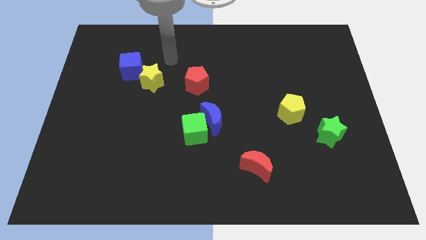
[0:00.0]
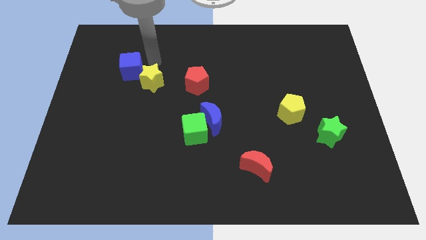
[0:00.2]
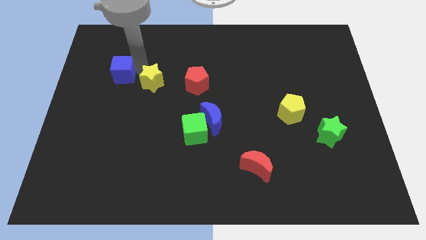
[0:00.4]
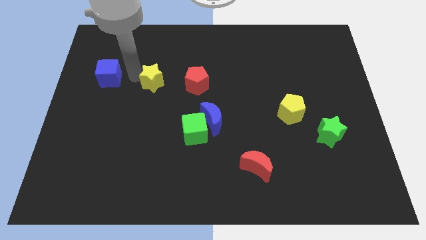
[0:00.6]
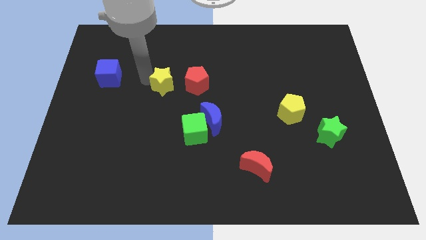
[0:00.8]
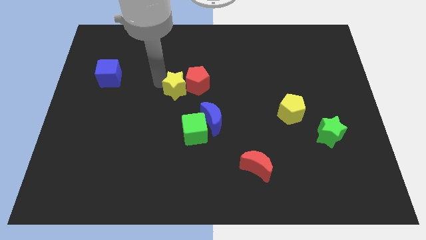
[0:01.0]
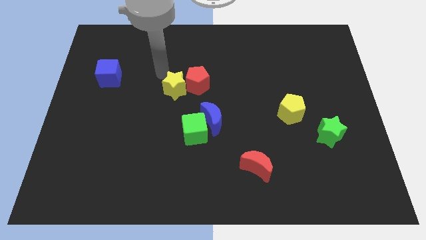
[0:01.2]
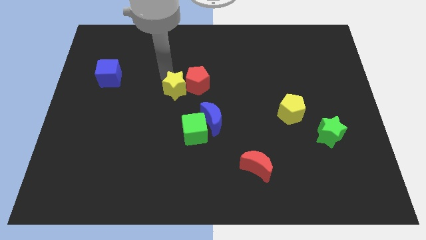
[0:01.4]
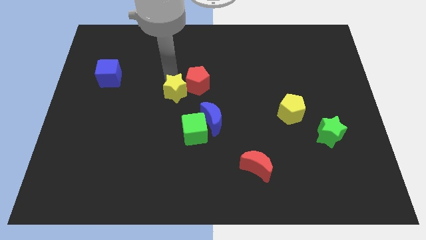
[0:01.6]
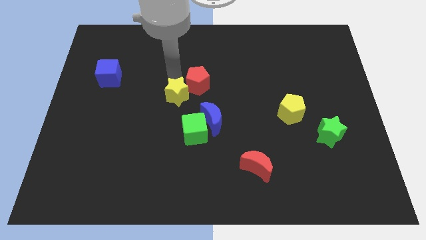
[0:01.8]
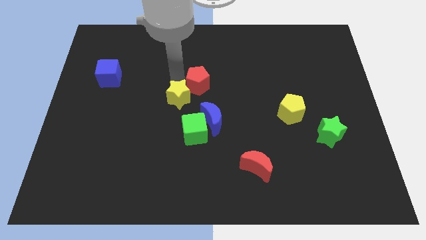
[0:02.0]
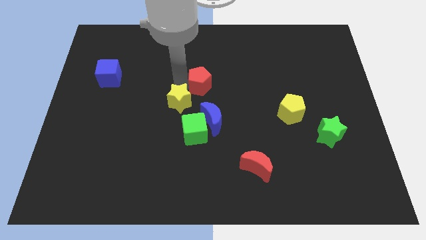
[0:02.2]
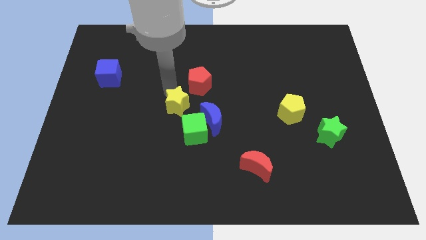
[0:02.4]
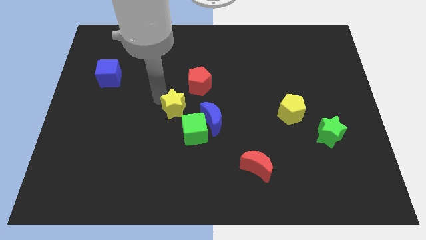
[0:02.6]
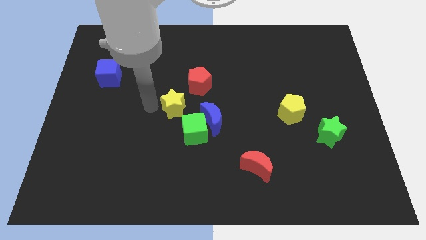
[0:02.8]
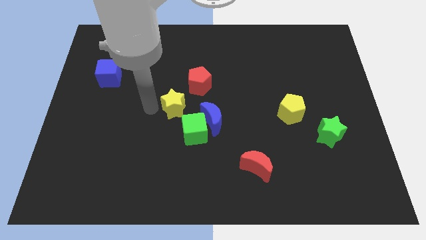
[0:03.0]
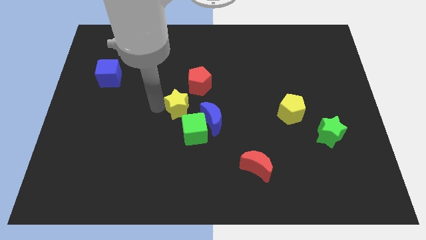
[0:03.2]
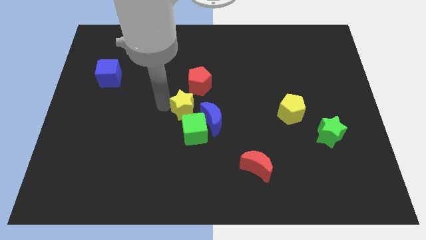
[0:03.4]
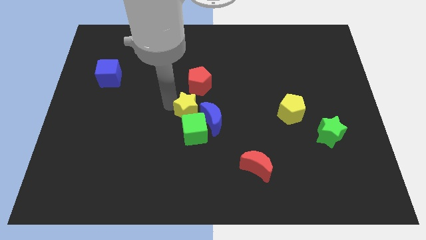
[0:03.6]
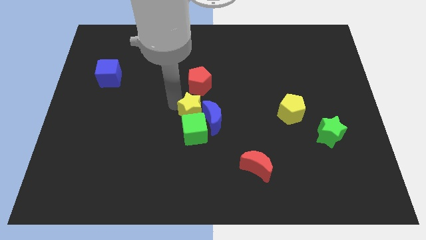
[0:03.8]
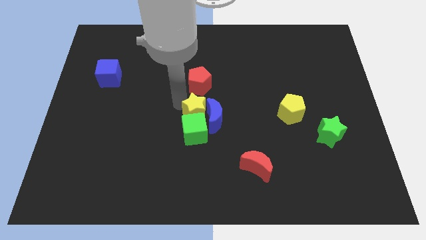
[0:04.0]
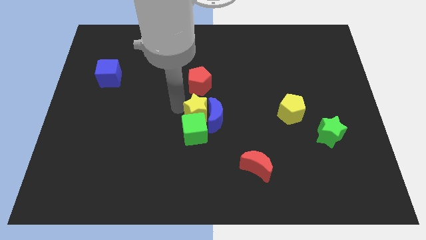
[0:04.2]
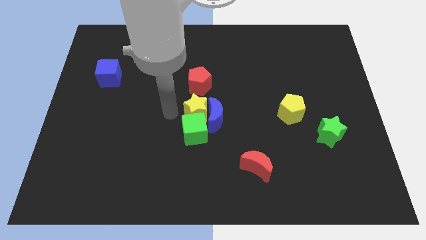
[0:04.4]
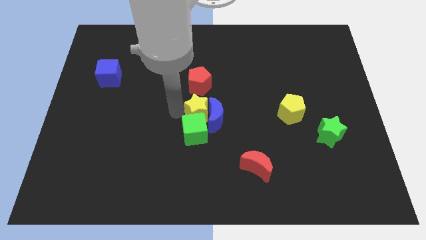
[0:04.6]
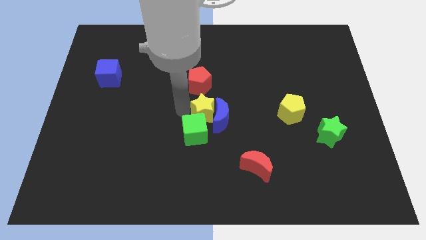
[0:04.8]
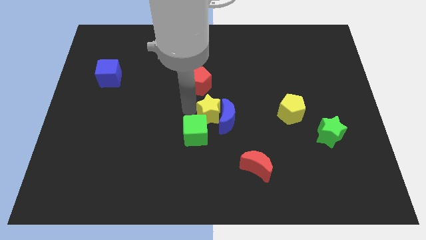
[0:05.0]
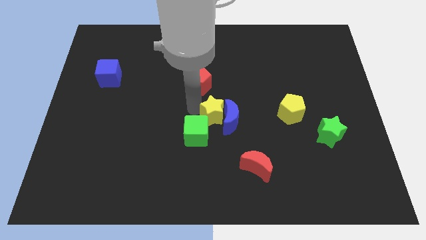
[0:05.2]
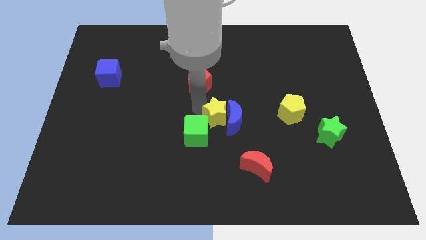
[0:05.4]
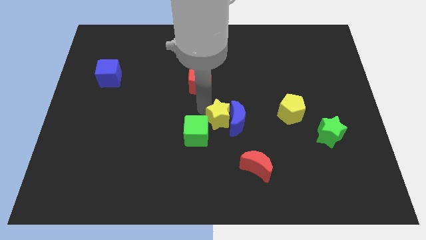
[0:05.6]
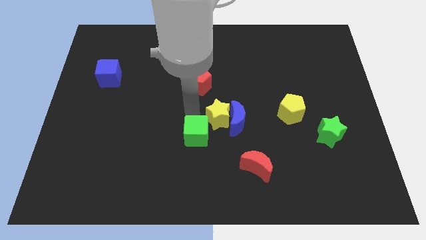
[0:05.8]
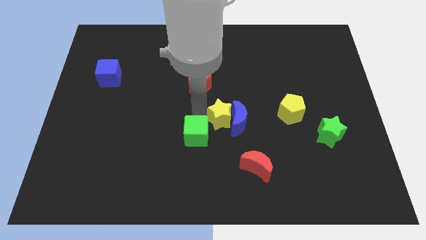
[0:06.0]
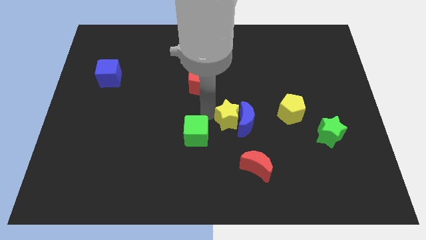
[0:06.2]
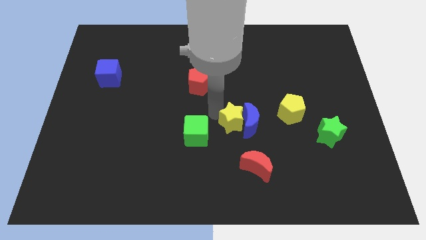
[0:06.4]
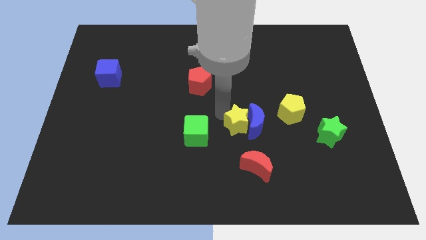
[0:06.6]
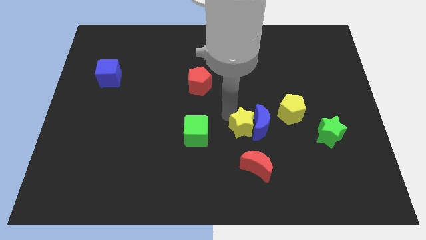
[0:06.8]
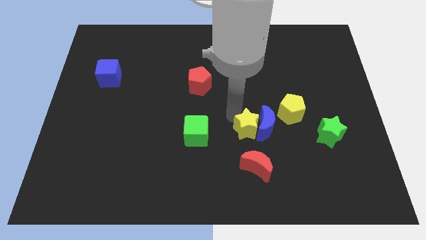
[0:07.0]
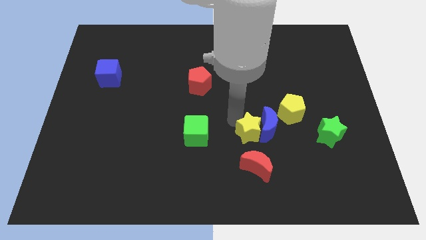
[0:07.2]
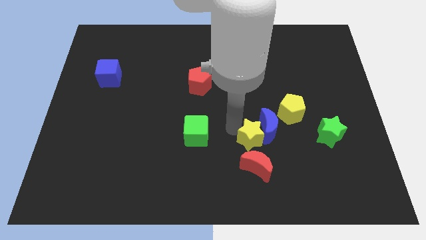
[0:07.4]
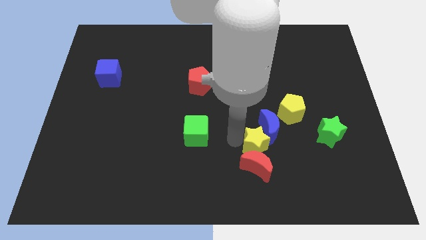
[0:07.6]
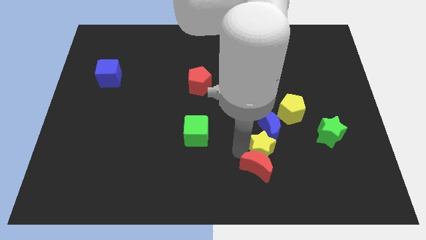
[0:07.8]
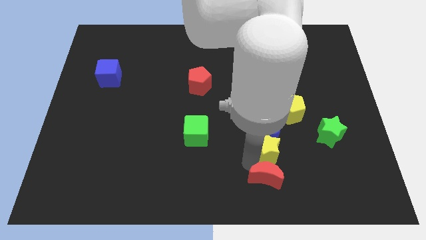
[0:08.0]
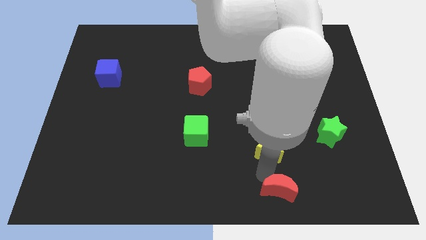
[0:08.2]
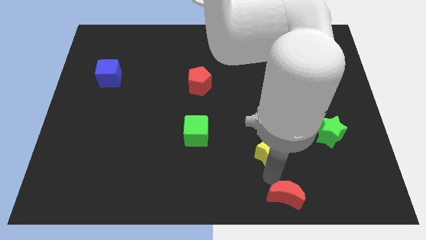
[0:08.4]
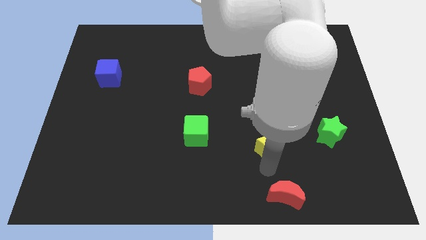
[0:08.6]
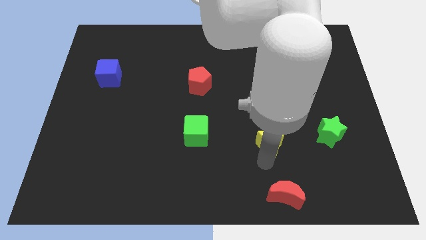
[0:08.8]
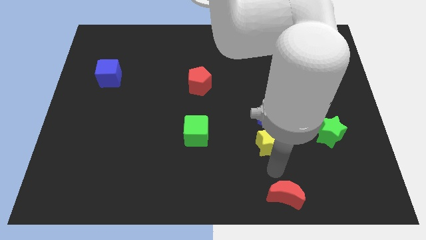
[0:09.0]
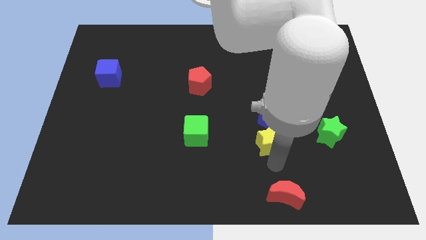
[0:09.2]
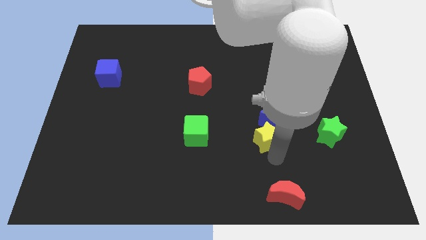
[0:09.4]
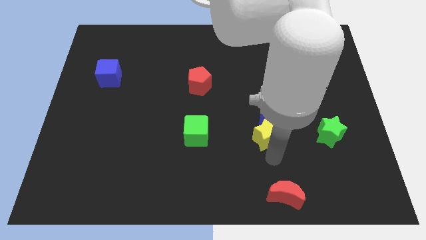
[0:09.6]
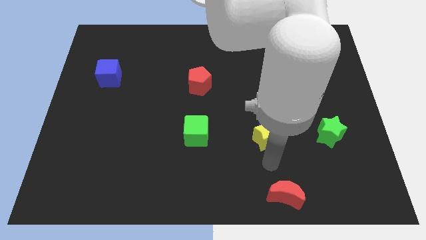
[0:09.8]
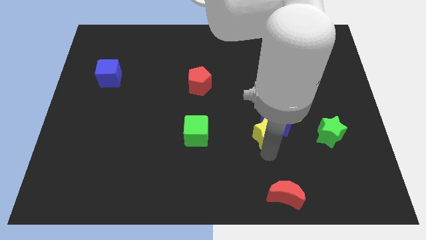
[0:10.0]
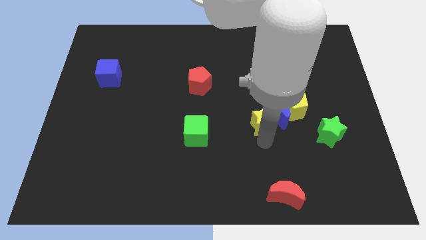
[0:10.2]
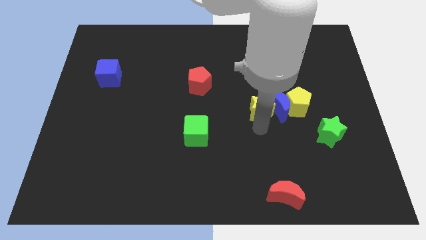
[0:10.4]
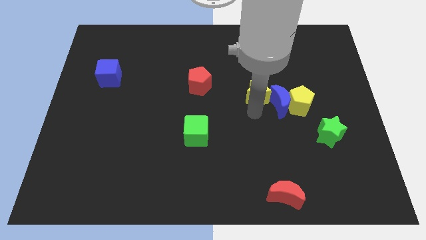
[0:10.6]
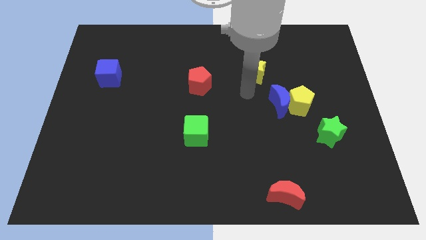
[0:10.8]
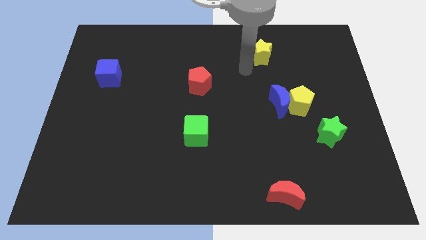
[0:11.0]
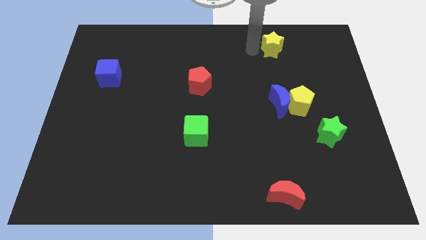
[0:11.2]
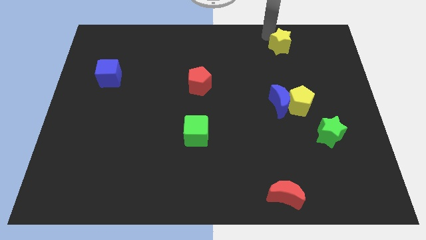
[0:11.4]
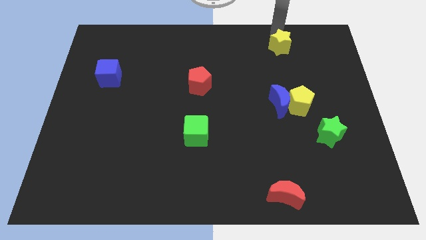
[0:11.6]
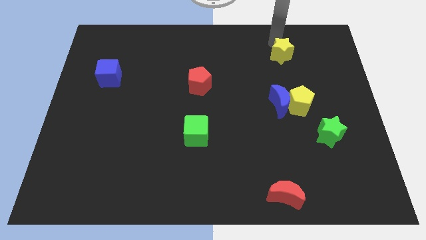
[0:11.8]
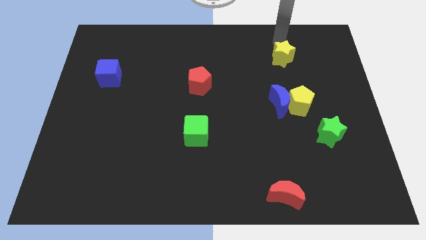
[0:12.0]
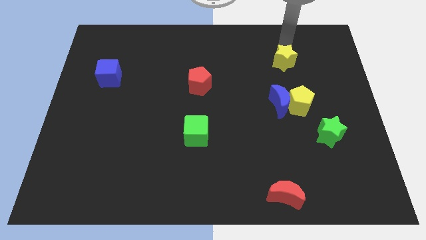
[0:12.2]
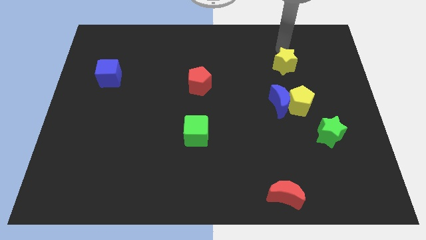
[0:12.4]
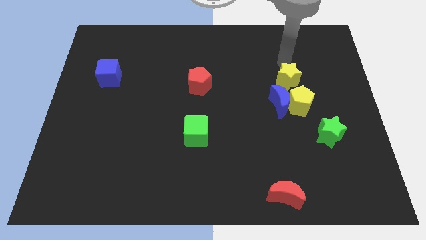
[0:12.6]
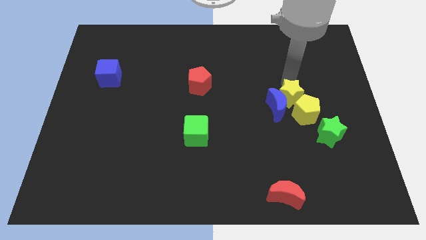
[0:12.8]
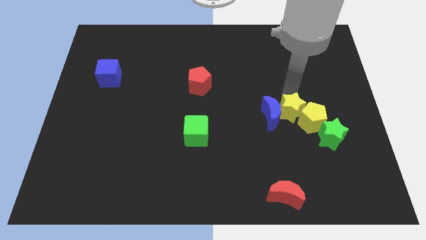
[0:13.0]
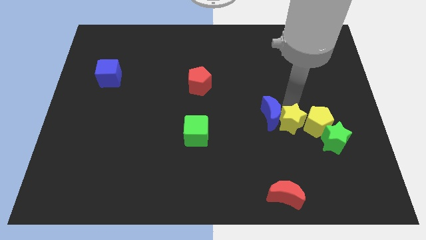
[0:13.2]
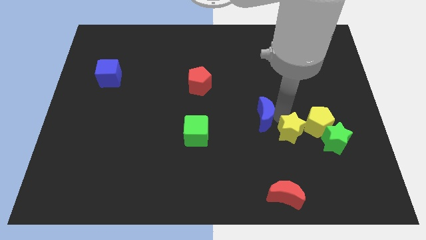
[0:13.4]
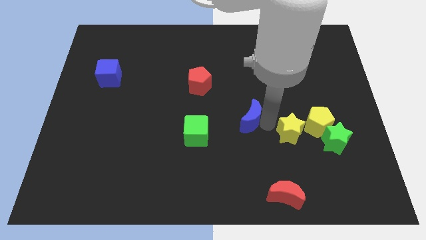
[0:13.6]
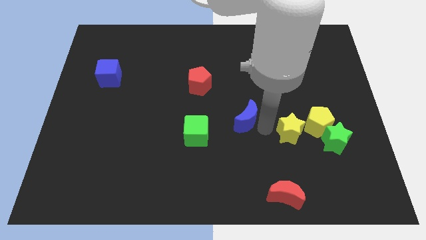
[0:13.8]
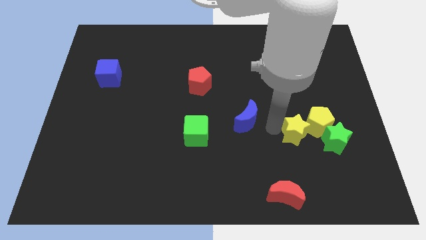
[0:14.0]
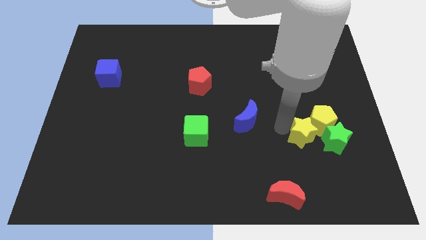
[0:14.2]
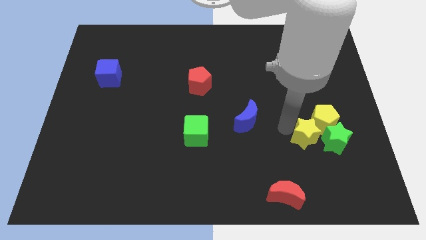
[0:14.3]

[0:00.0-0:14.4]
slide the yellow star towards the green star

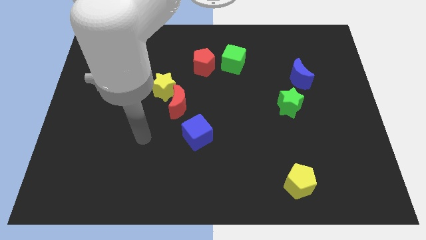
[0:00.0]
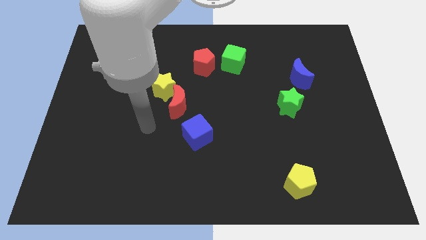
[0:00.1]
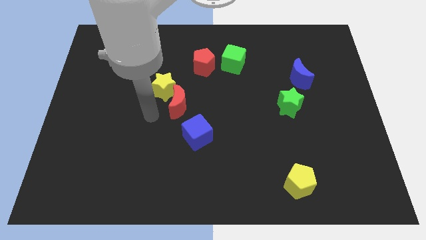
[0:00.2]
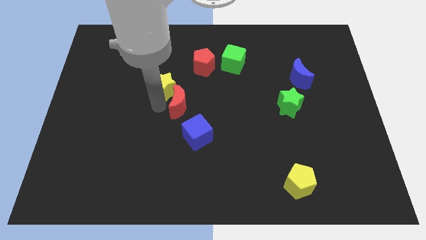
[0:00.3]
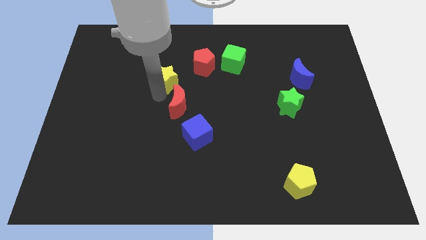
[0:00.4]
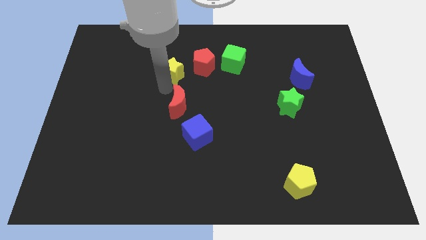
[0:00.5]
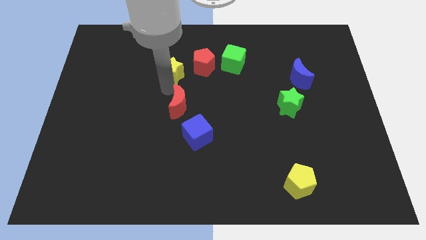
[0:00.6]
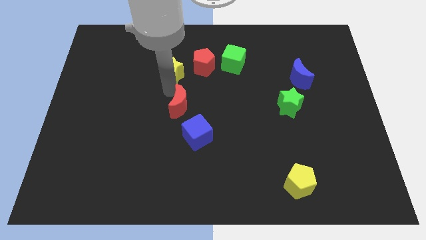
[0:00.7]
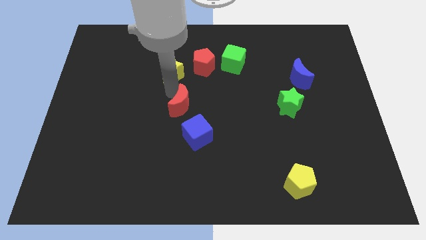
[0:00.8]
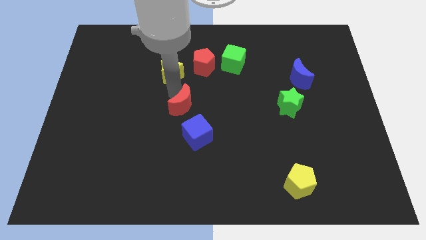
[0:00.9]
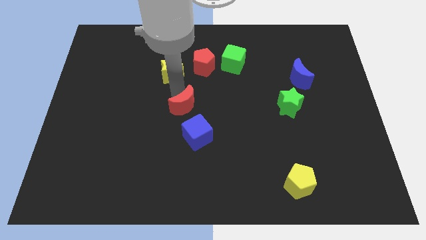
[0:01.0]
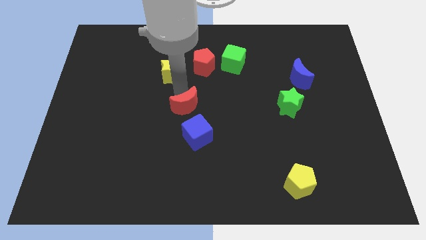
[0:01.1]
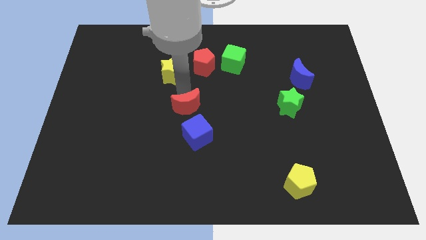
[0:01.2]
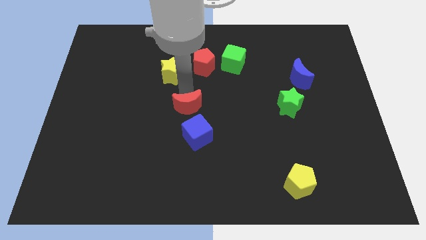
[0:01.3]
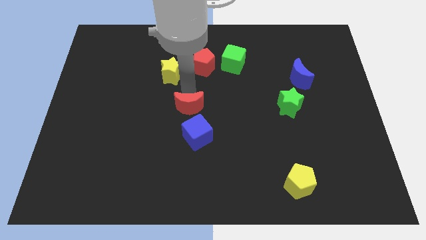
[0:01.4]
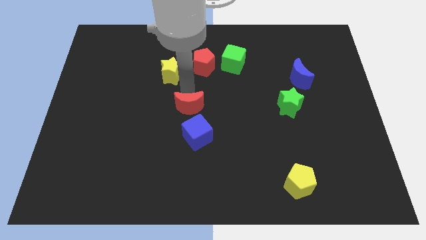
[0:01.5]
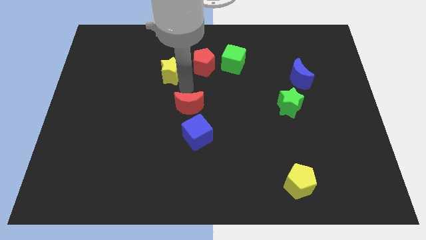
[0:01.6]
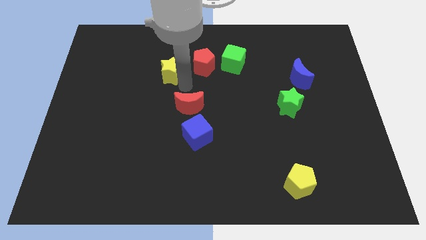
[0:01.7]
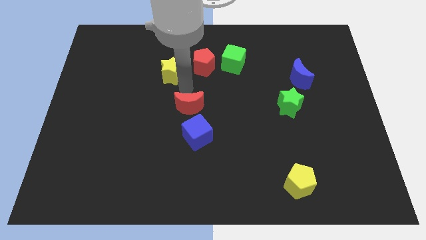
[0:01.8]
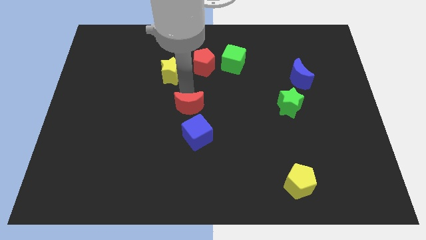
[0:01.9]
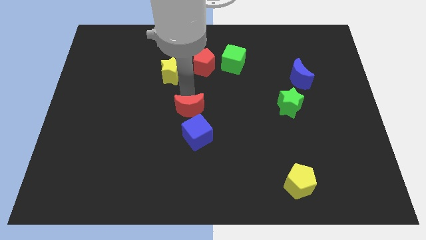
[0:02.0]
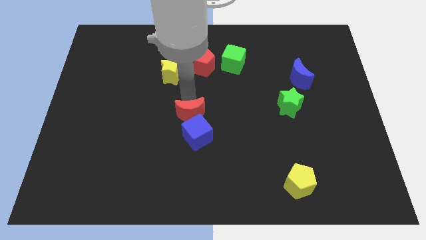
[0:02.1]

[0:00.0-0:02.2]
push the red moon to the blue cube
